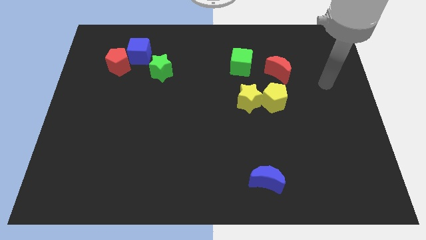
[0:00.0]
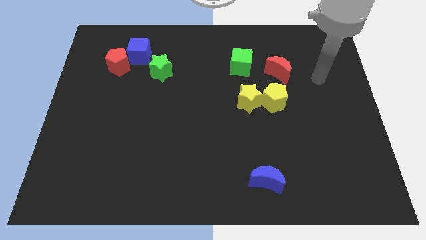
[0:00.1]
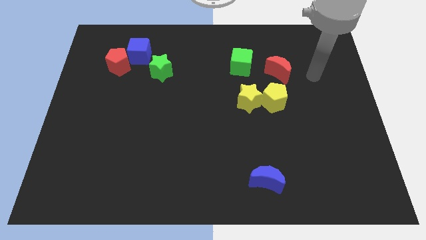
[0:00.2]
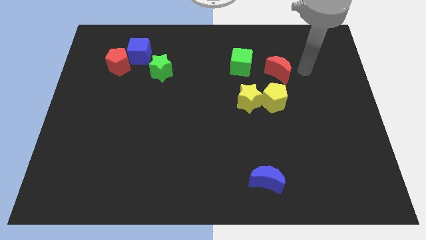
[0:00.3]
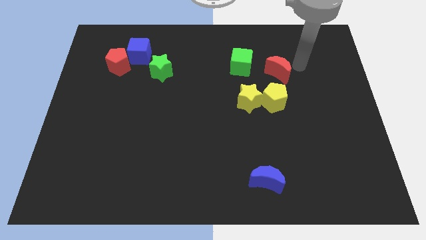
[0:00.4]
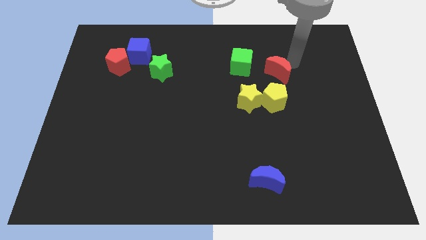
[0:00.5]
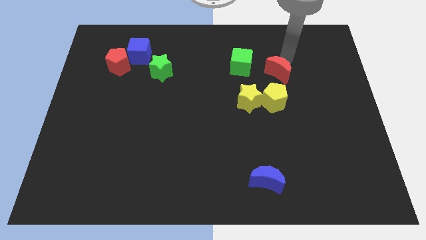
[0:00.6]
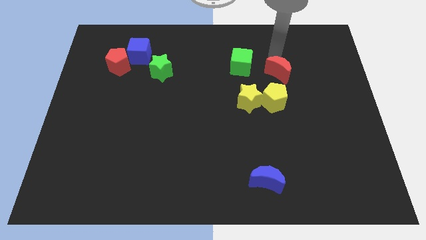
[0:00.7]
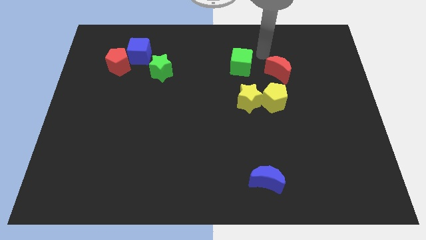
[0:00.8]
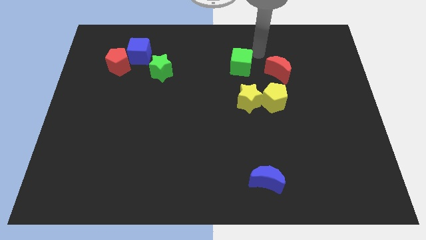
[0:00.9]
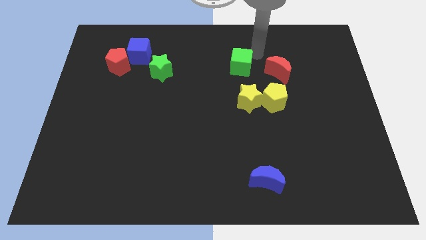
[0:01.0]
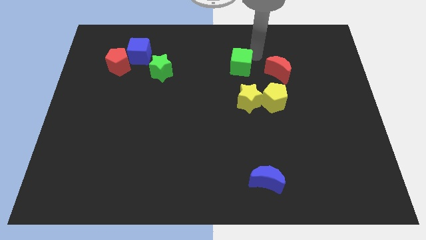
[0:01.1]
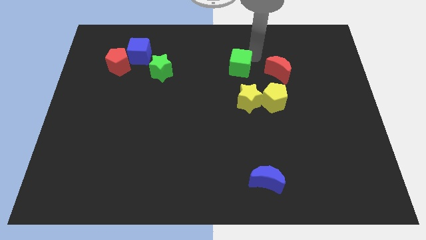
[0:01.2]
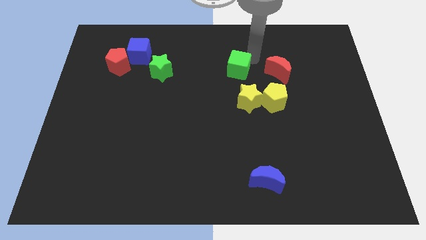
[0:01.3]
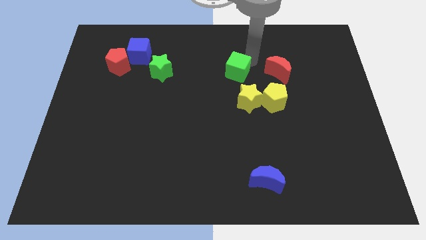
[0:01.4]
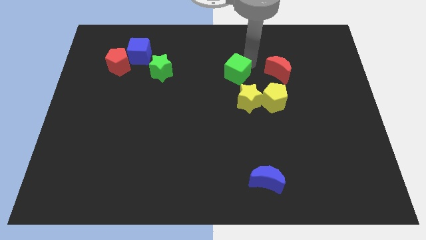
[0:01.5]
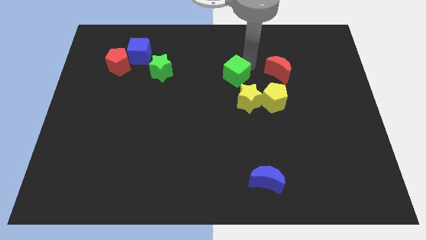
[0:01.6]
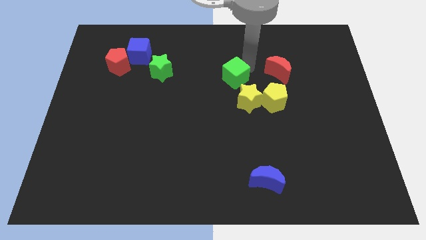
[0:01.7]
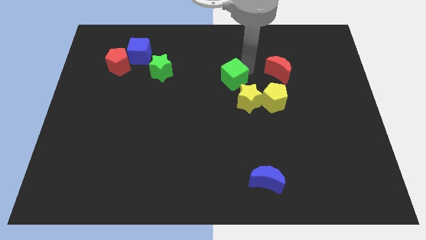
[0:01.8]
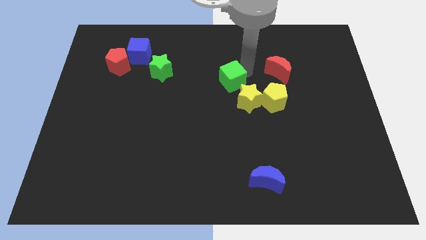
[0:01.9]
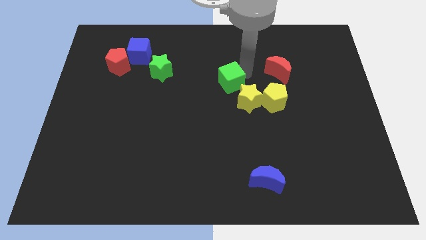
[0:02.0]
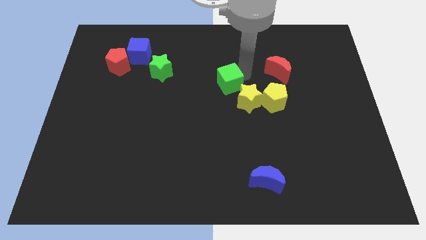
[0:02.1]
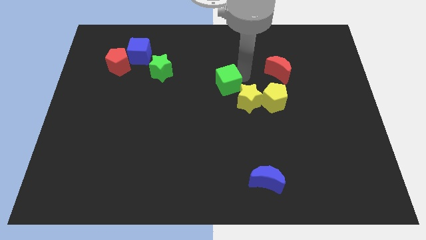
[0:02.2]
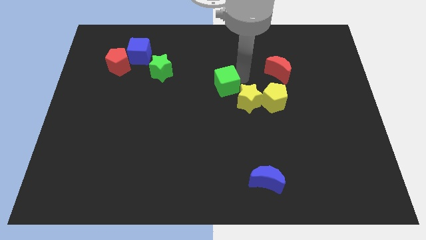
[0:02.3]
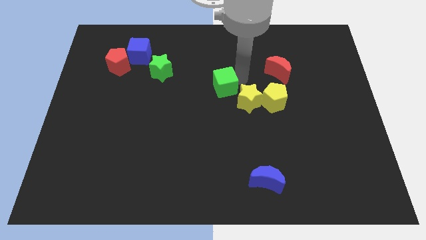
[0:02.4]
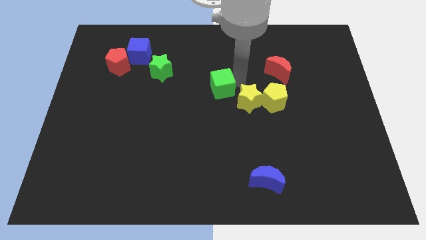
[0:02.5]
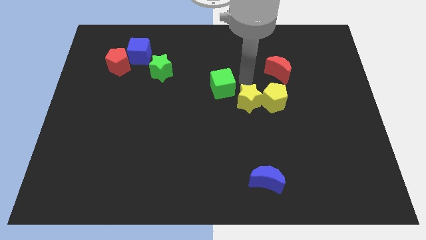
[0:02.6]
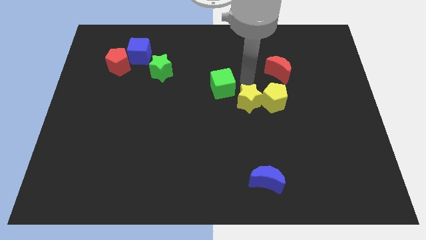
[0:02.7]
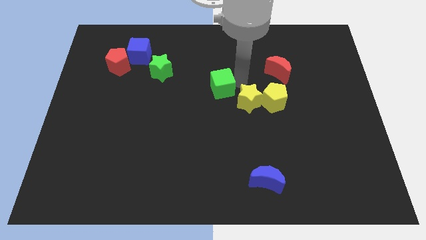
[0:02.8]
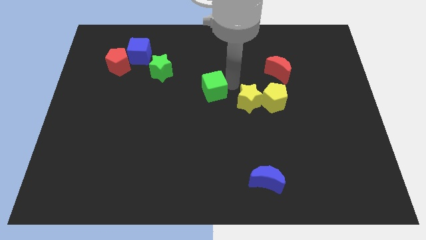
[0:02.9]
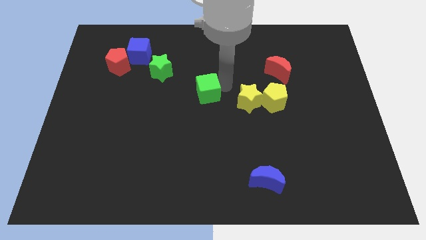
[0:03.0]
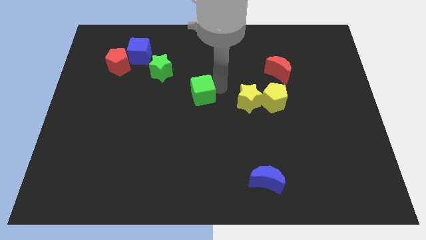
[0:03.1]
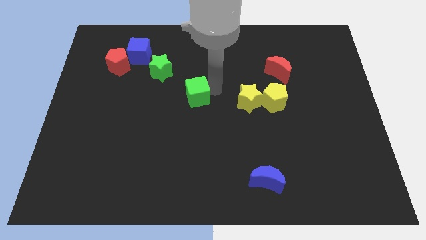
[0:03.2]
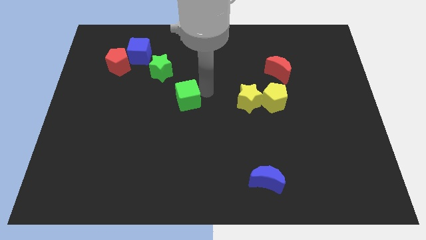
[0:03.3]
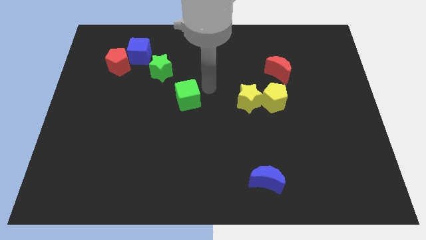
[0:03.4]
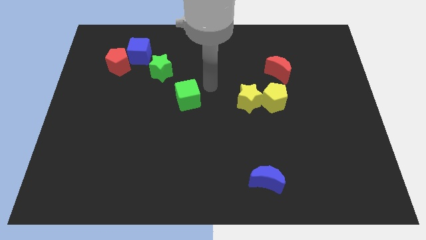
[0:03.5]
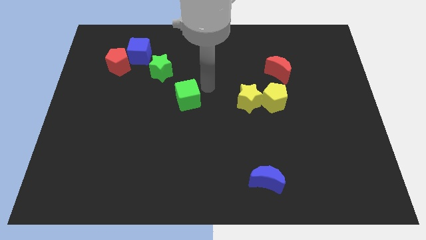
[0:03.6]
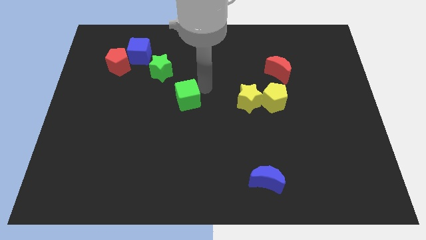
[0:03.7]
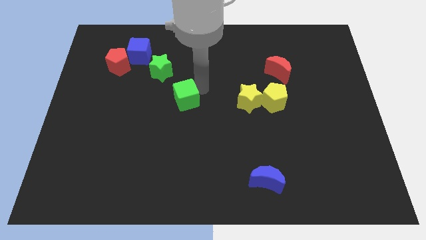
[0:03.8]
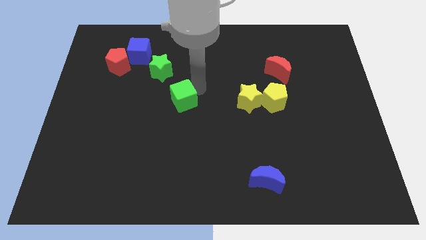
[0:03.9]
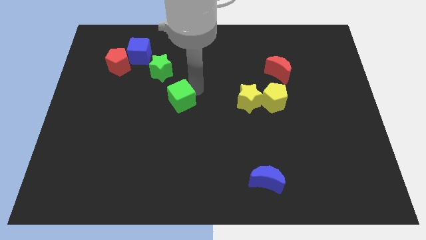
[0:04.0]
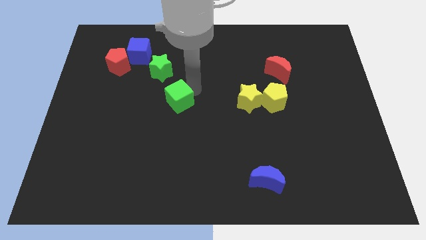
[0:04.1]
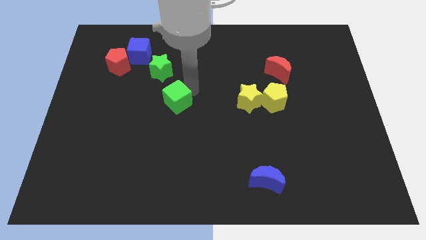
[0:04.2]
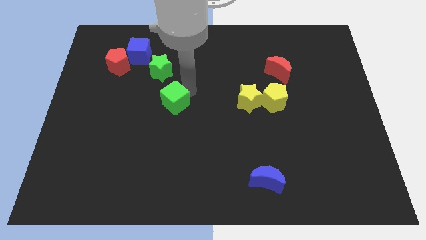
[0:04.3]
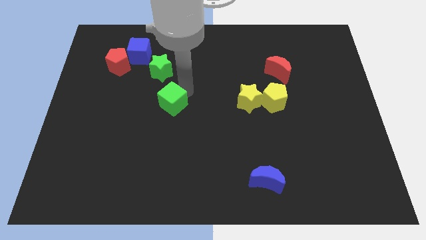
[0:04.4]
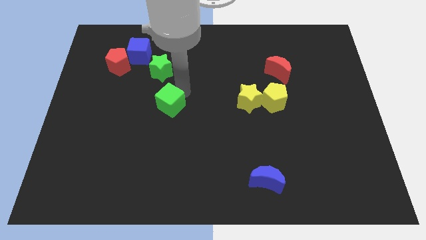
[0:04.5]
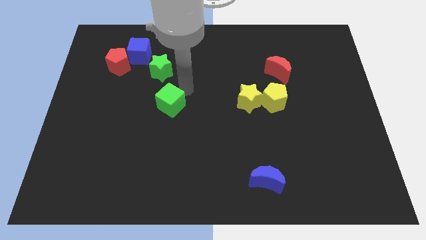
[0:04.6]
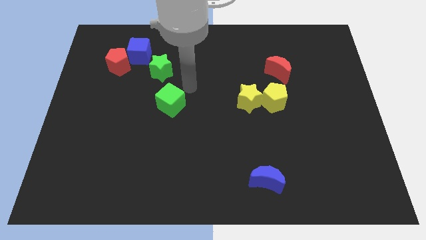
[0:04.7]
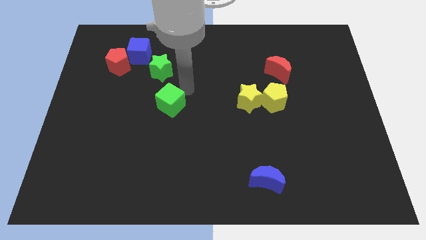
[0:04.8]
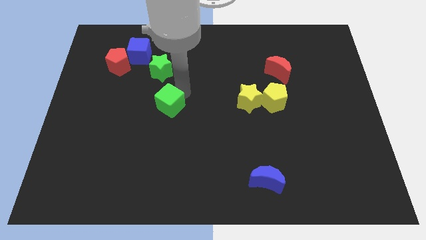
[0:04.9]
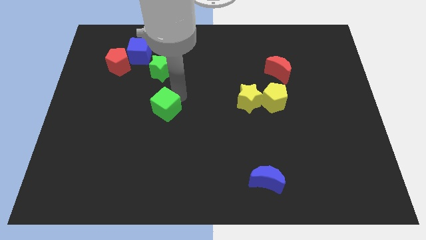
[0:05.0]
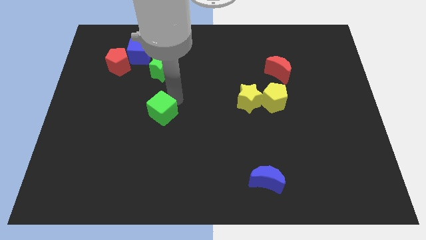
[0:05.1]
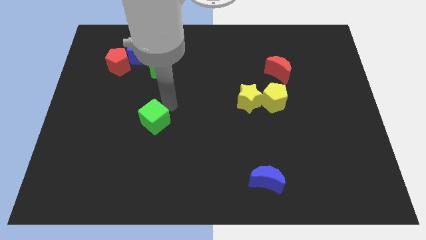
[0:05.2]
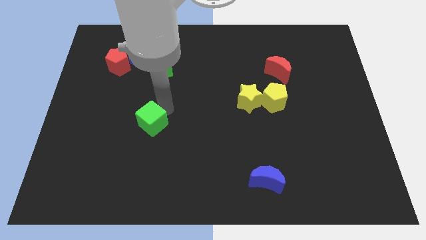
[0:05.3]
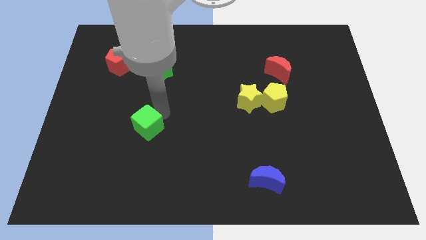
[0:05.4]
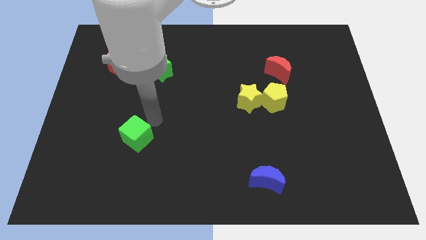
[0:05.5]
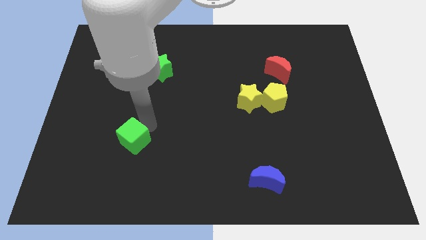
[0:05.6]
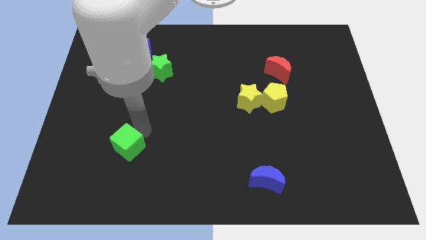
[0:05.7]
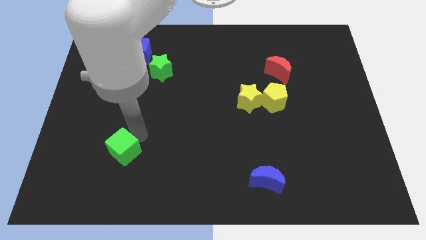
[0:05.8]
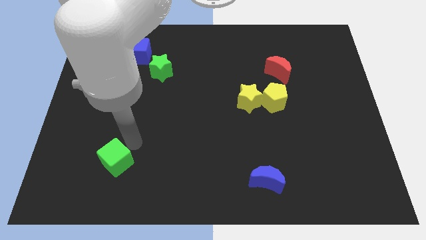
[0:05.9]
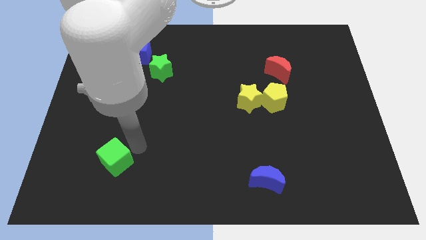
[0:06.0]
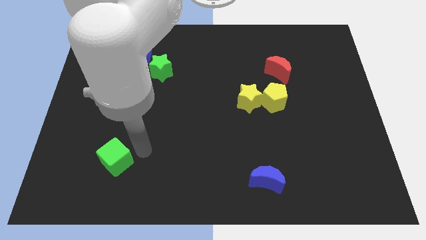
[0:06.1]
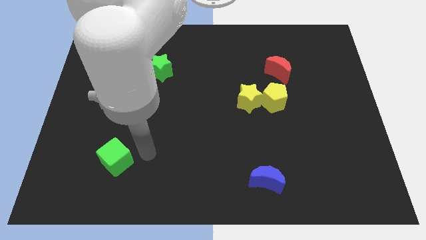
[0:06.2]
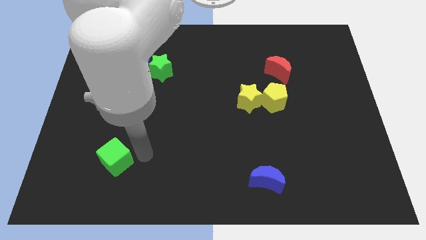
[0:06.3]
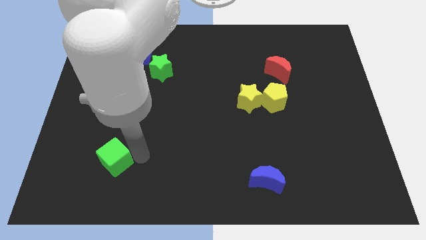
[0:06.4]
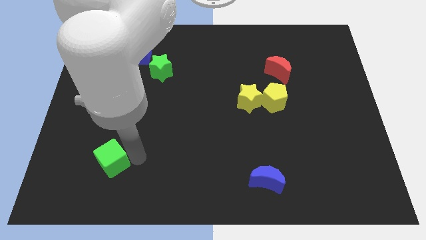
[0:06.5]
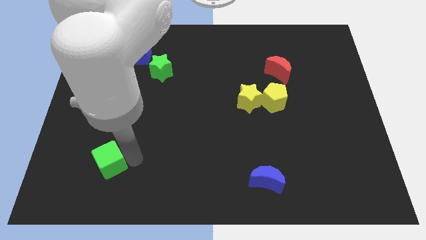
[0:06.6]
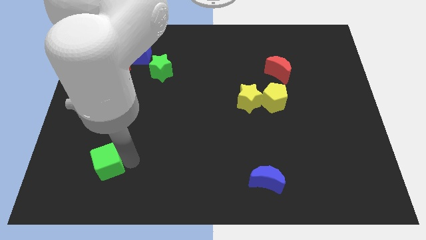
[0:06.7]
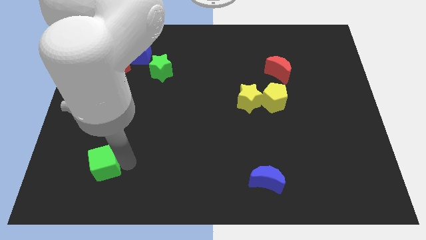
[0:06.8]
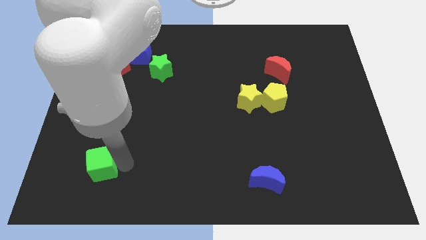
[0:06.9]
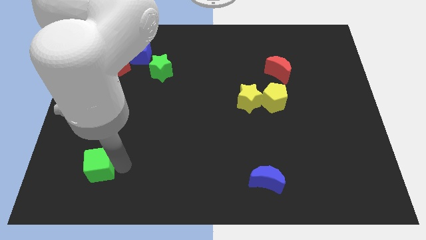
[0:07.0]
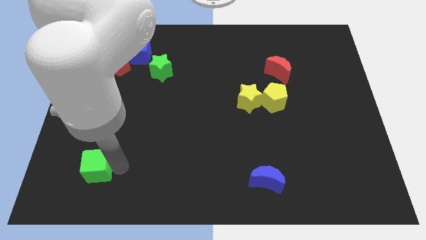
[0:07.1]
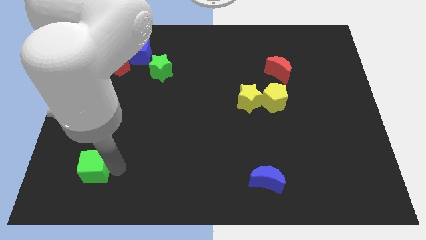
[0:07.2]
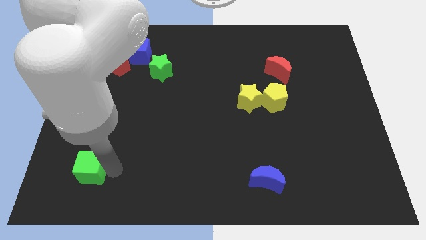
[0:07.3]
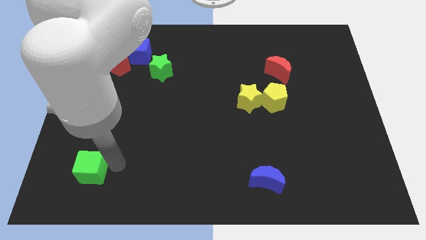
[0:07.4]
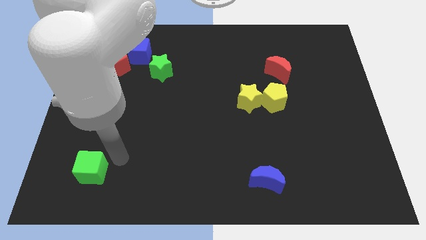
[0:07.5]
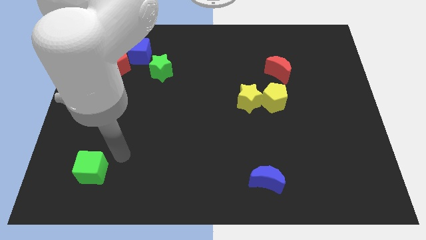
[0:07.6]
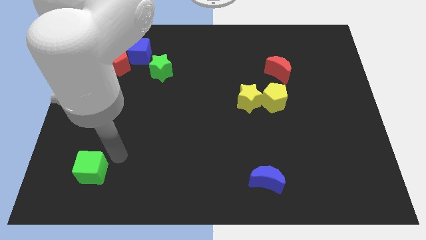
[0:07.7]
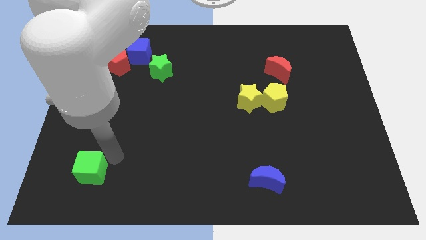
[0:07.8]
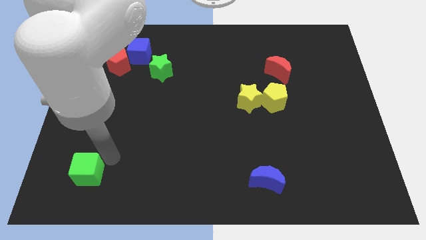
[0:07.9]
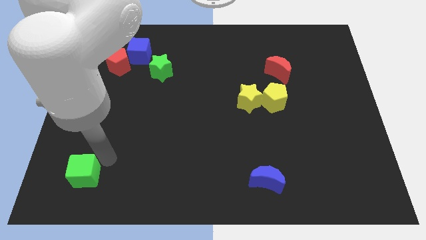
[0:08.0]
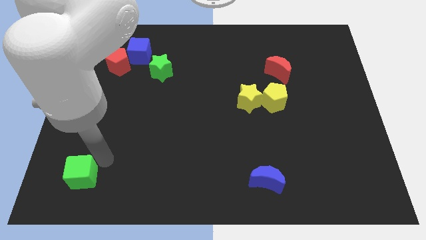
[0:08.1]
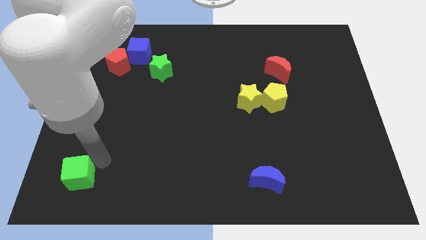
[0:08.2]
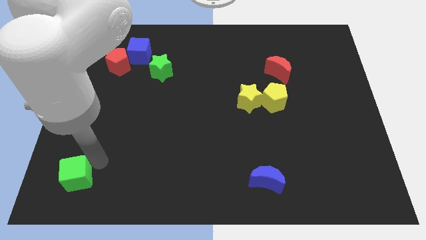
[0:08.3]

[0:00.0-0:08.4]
push the green cube to the lower left corner
